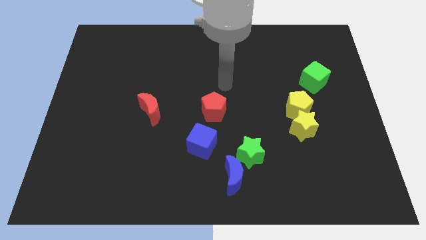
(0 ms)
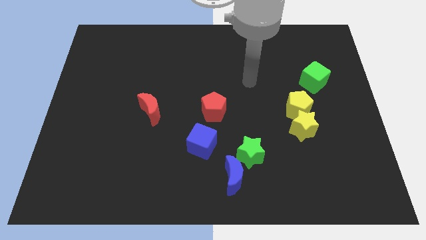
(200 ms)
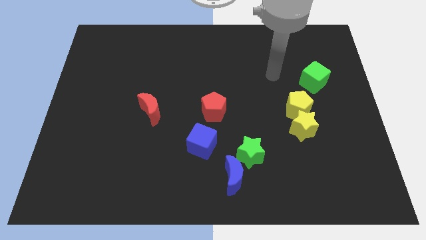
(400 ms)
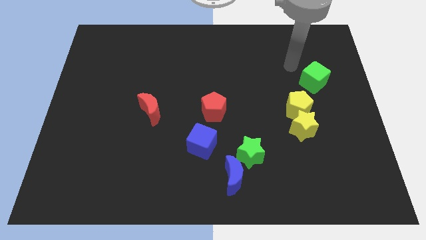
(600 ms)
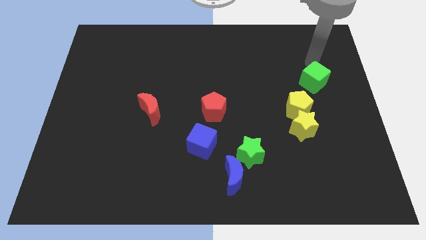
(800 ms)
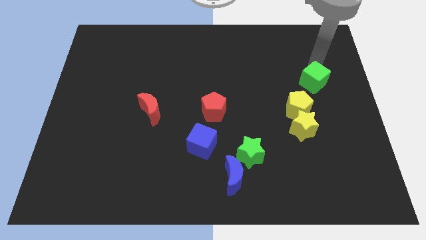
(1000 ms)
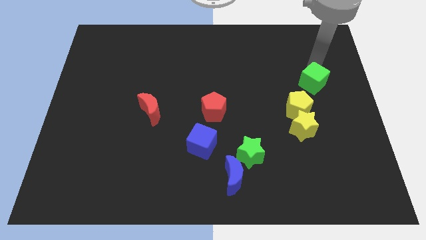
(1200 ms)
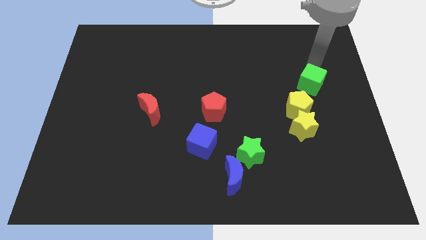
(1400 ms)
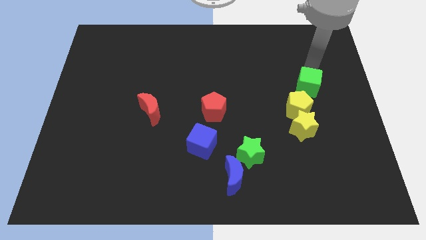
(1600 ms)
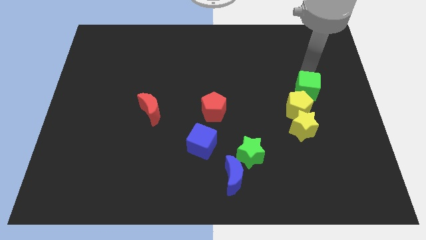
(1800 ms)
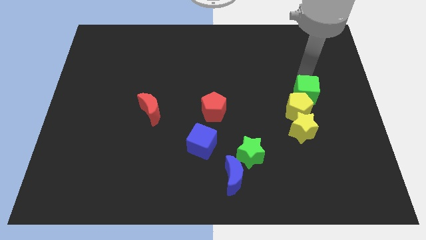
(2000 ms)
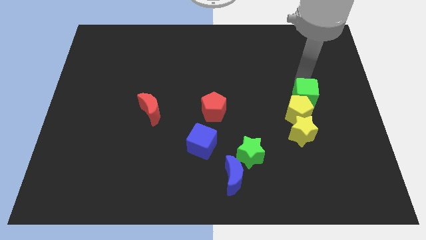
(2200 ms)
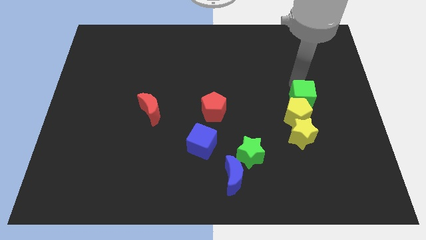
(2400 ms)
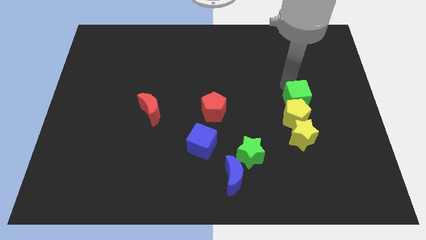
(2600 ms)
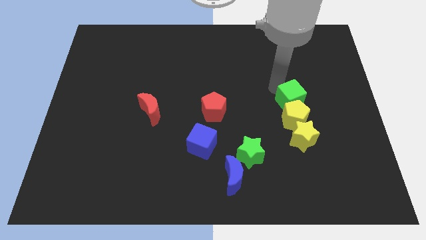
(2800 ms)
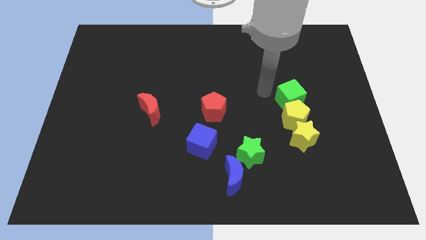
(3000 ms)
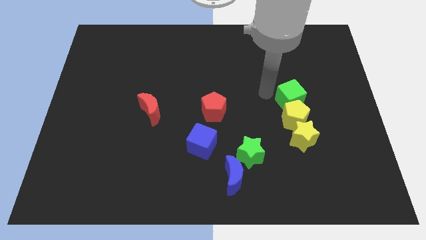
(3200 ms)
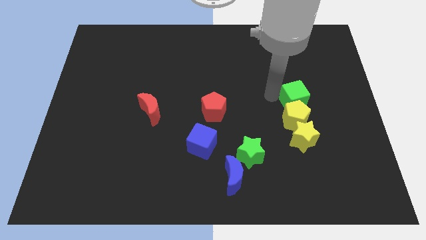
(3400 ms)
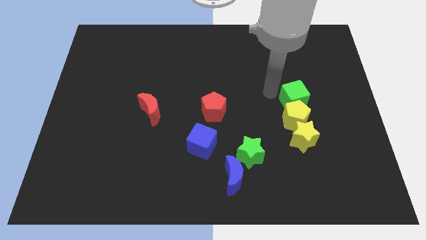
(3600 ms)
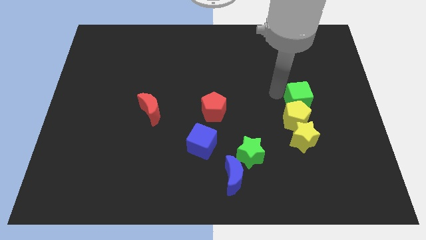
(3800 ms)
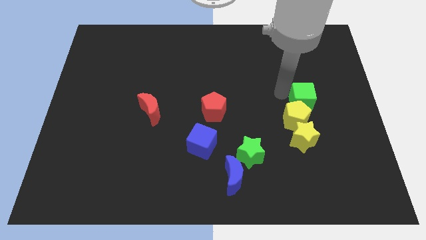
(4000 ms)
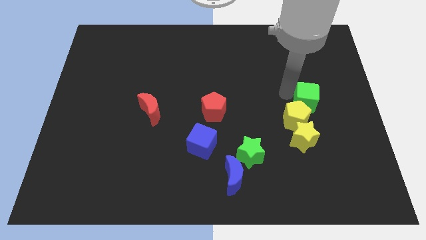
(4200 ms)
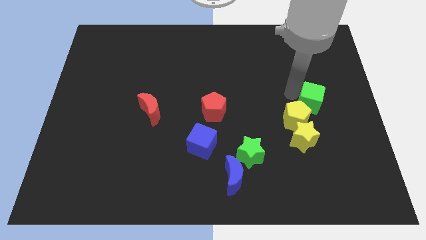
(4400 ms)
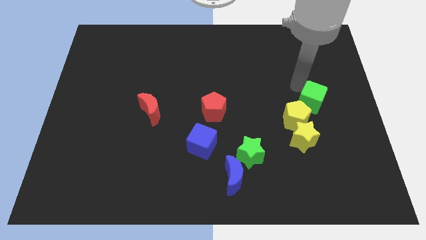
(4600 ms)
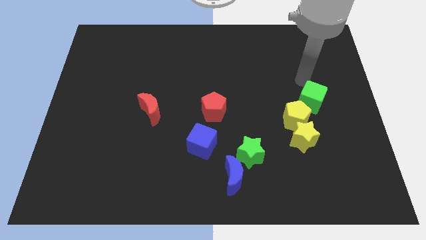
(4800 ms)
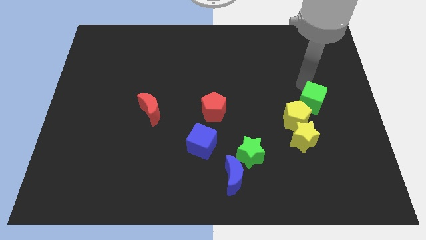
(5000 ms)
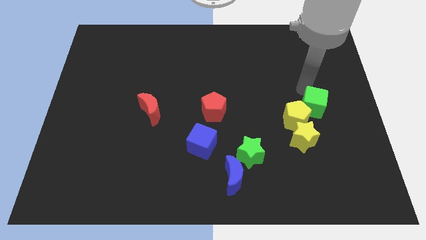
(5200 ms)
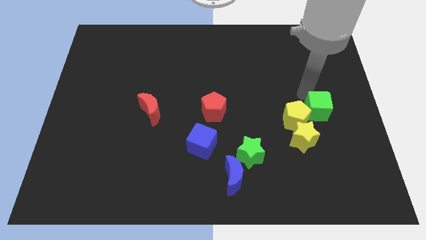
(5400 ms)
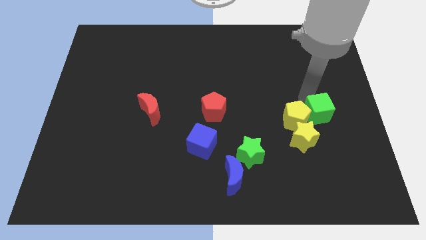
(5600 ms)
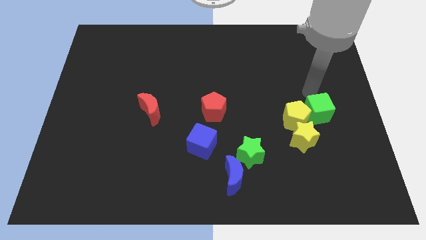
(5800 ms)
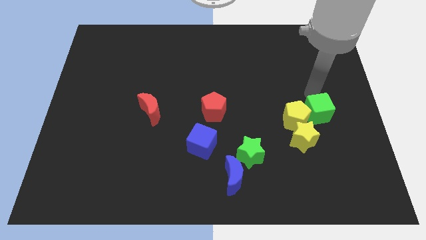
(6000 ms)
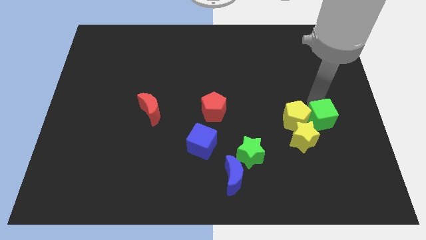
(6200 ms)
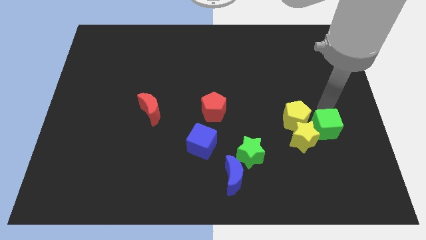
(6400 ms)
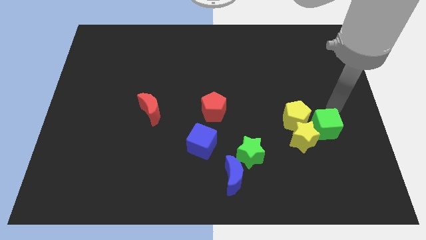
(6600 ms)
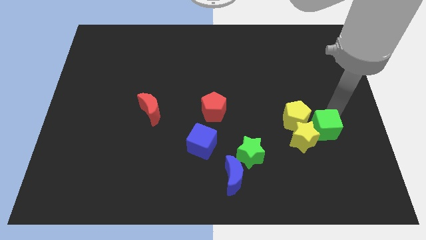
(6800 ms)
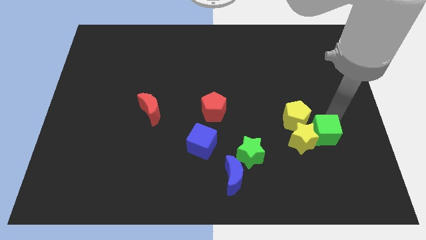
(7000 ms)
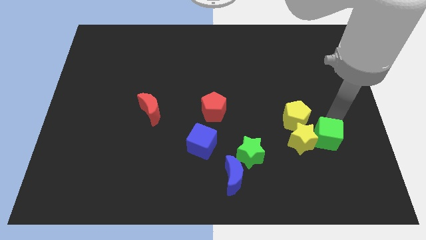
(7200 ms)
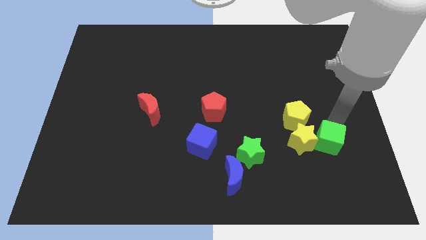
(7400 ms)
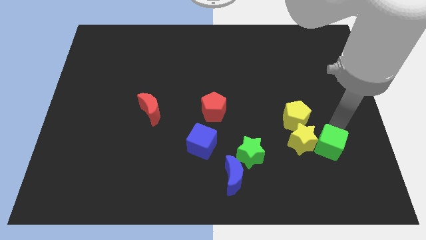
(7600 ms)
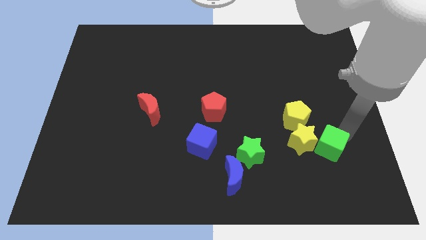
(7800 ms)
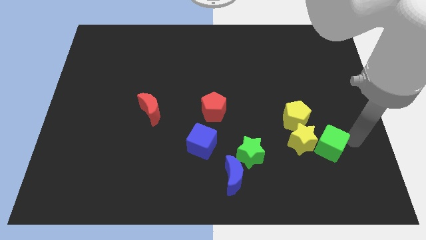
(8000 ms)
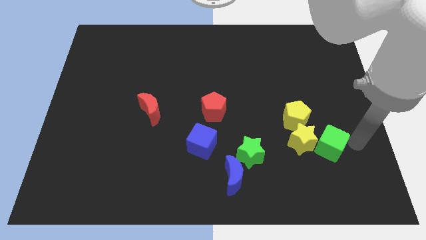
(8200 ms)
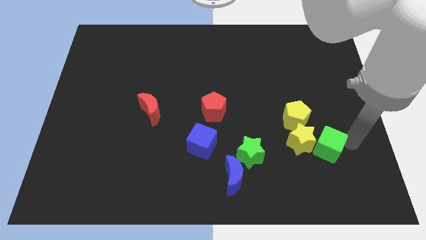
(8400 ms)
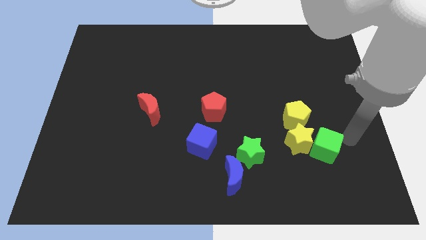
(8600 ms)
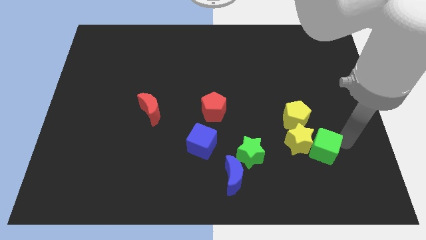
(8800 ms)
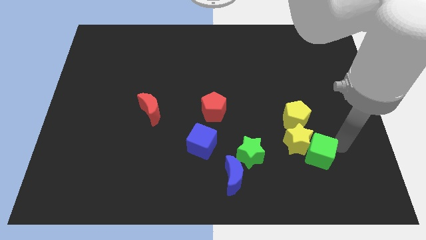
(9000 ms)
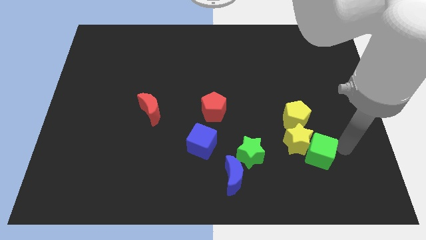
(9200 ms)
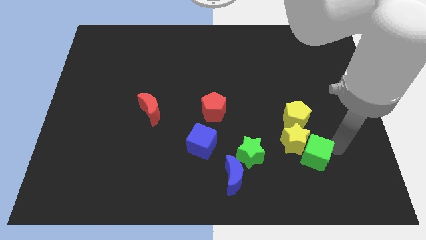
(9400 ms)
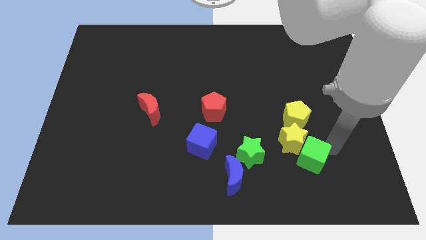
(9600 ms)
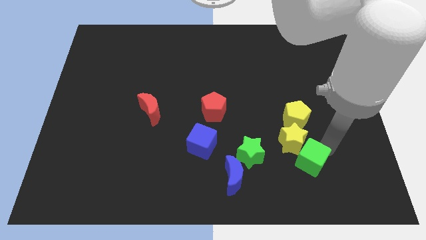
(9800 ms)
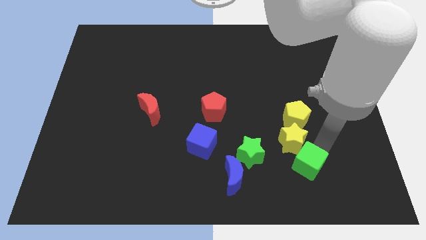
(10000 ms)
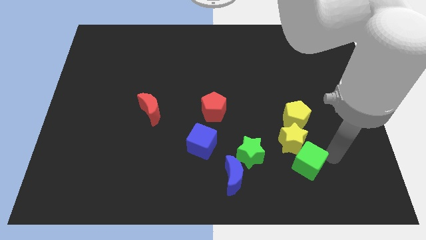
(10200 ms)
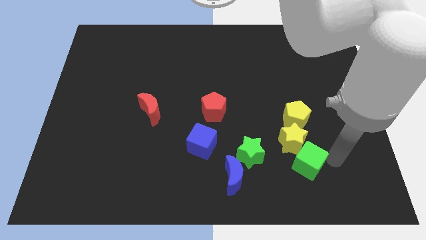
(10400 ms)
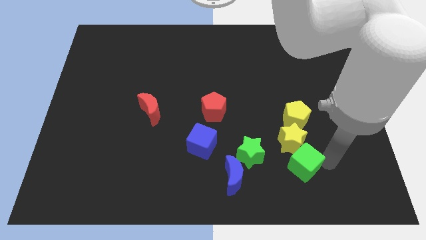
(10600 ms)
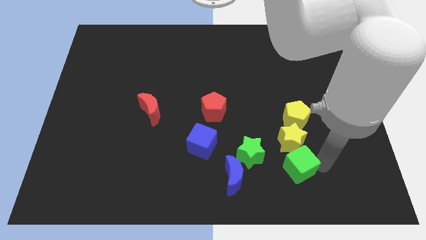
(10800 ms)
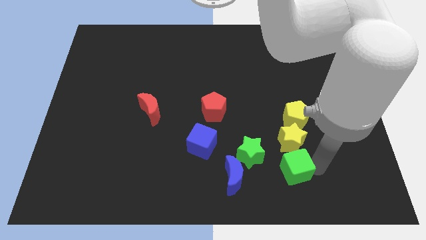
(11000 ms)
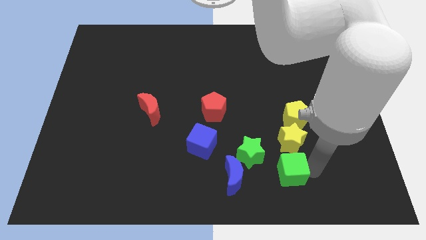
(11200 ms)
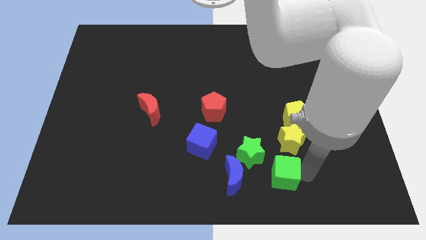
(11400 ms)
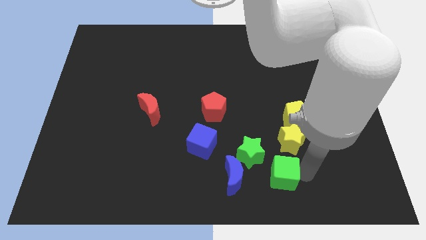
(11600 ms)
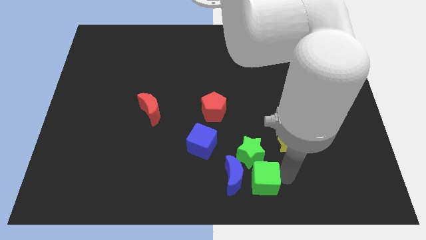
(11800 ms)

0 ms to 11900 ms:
put the green cube next to the blue moon

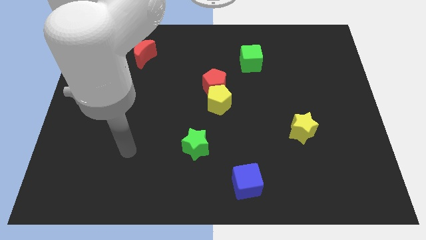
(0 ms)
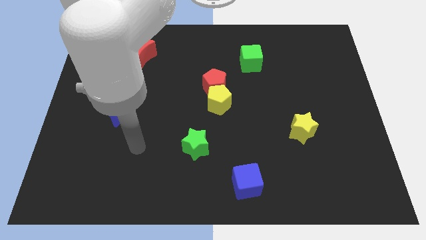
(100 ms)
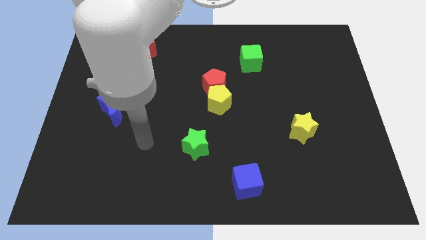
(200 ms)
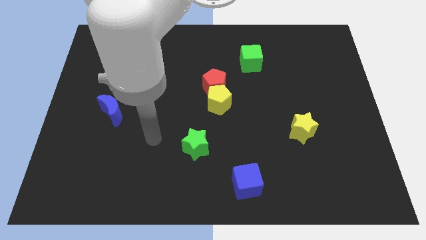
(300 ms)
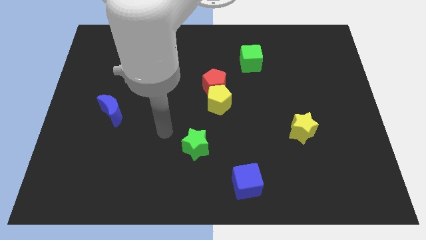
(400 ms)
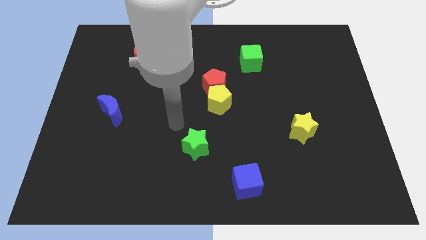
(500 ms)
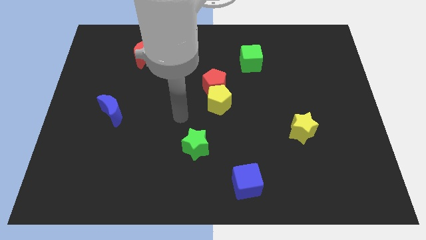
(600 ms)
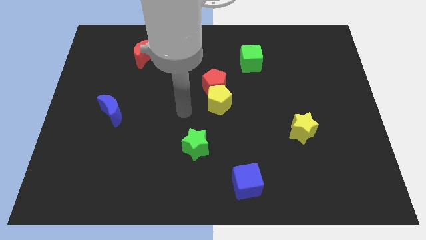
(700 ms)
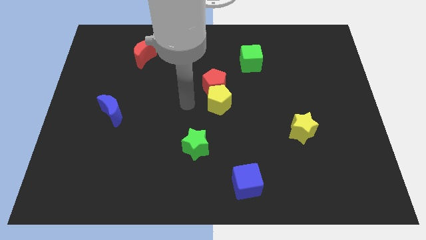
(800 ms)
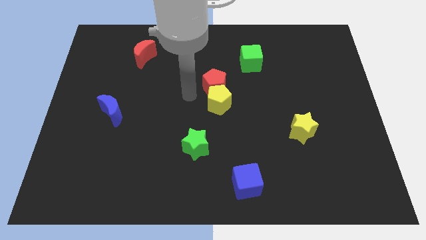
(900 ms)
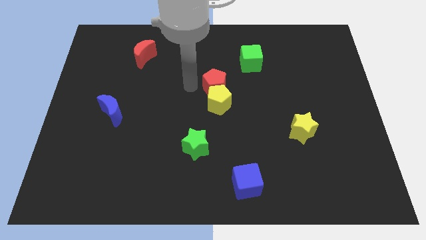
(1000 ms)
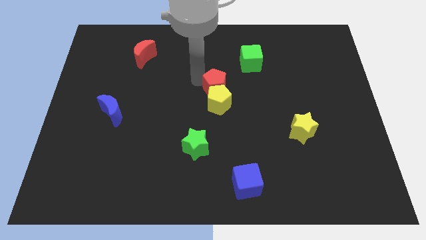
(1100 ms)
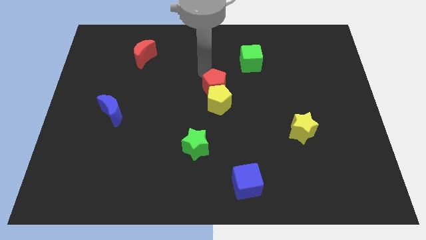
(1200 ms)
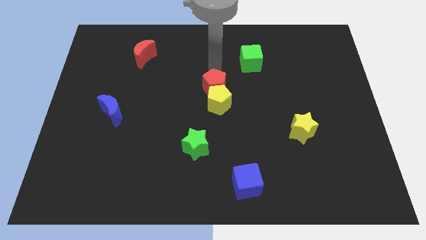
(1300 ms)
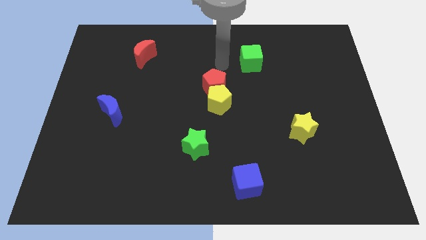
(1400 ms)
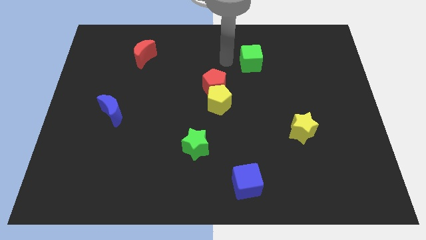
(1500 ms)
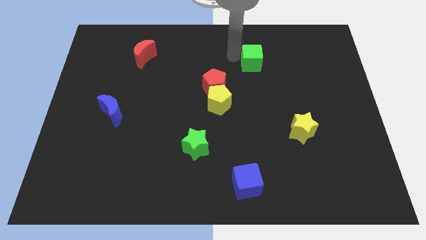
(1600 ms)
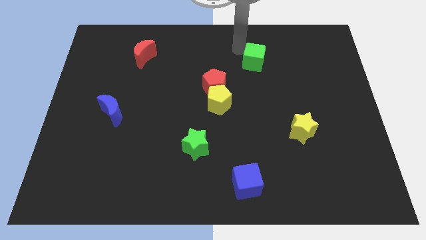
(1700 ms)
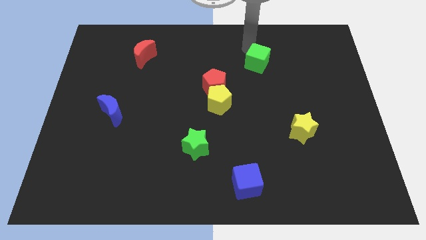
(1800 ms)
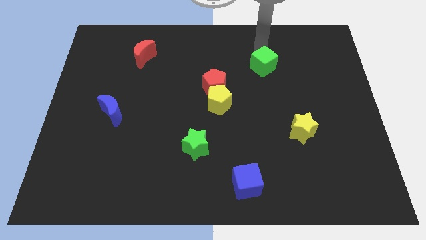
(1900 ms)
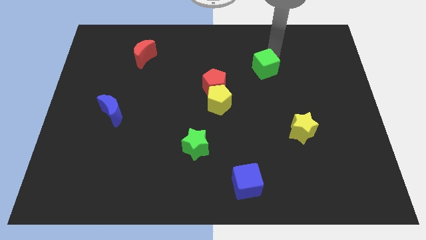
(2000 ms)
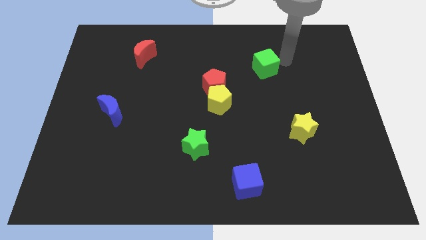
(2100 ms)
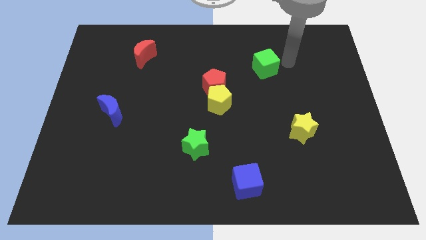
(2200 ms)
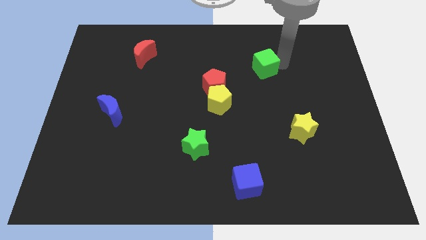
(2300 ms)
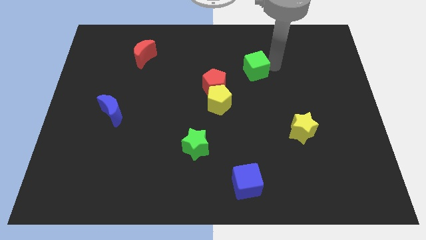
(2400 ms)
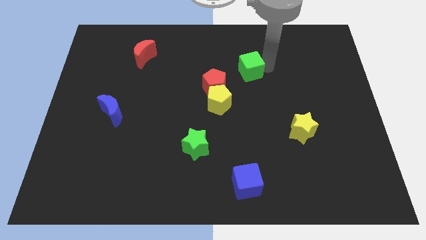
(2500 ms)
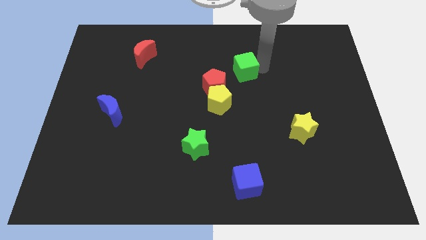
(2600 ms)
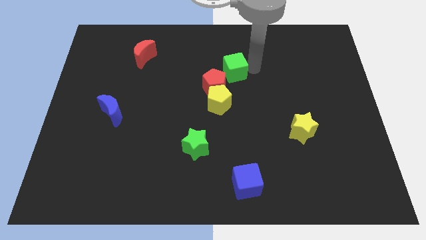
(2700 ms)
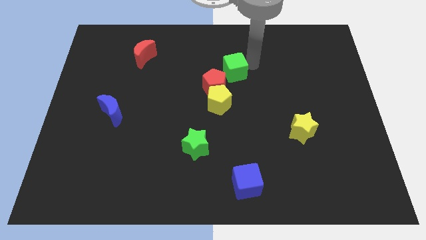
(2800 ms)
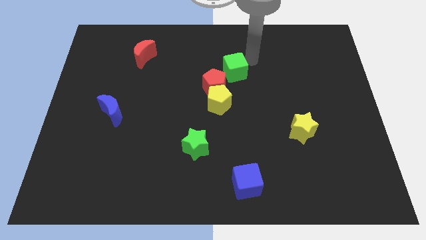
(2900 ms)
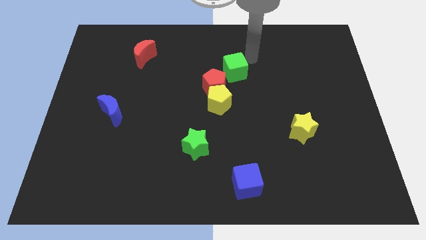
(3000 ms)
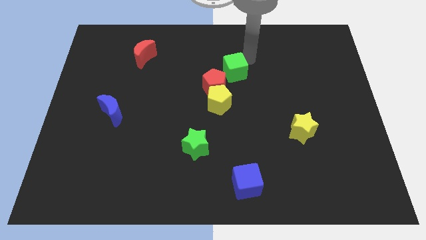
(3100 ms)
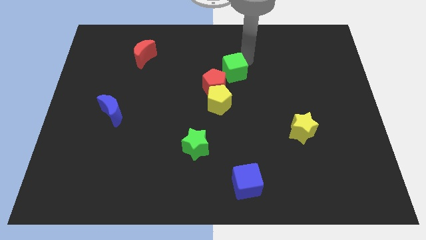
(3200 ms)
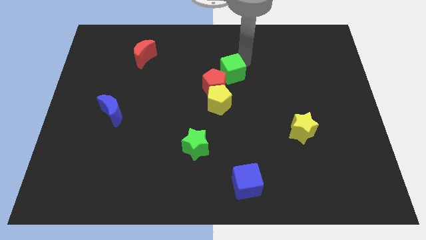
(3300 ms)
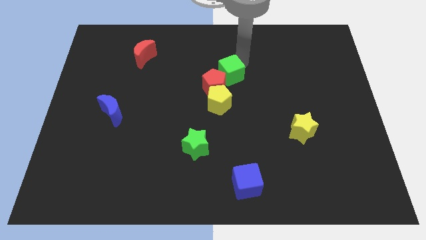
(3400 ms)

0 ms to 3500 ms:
push the green cube towards the red pentagon
